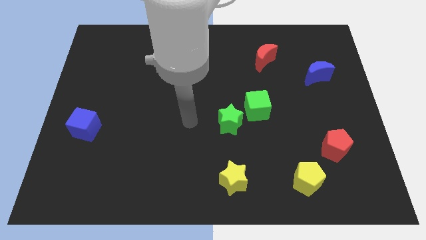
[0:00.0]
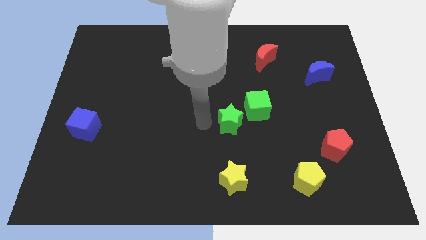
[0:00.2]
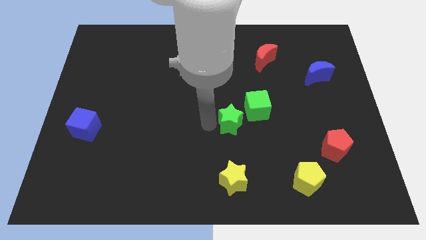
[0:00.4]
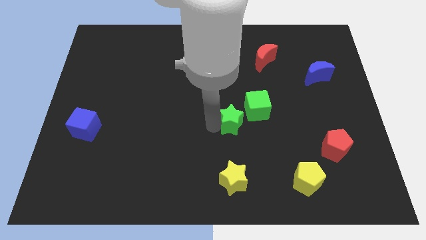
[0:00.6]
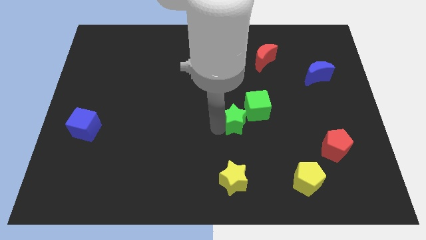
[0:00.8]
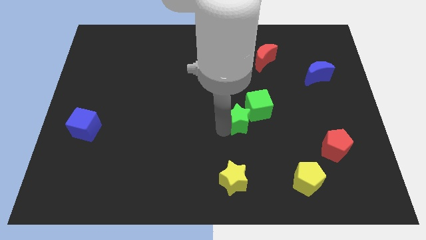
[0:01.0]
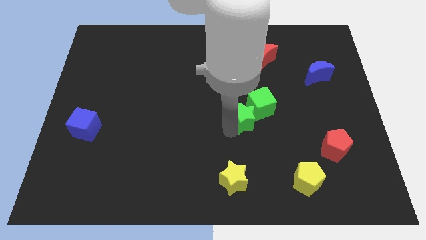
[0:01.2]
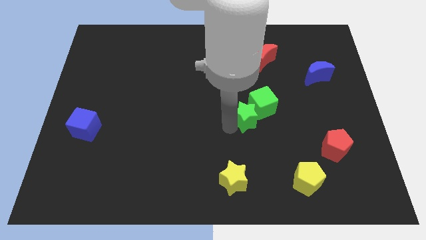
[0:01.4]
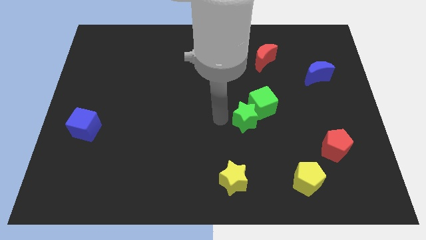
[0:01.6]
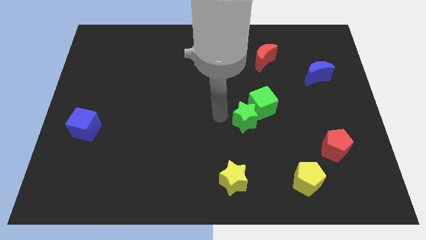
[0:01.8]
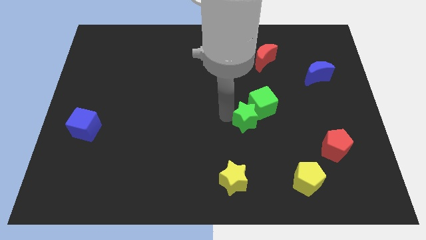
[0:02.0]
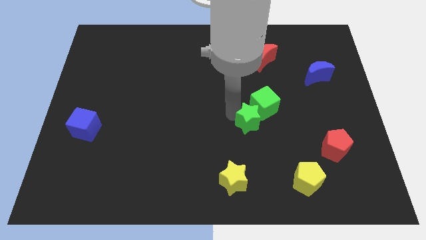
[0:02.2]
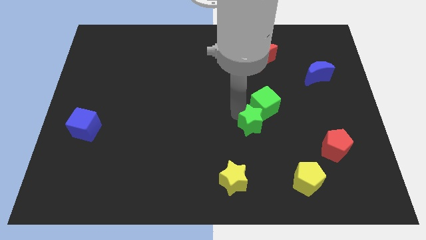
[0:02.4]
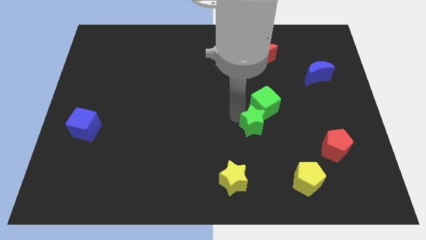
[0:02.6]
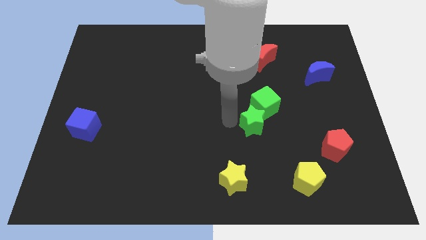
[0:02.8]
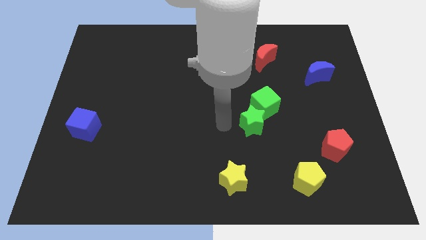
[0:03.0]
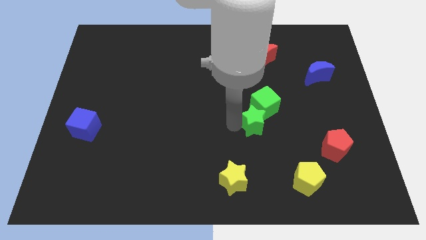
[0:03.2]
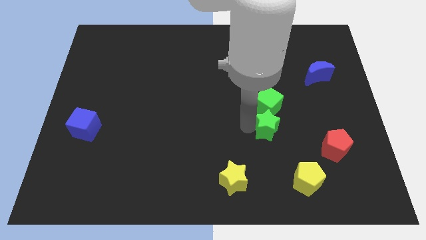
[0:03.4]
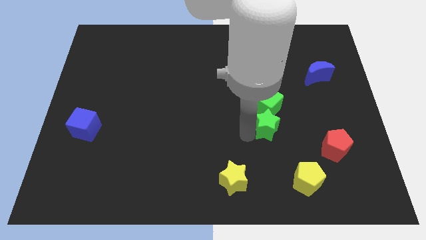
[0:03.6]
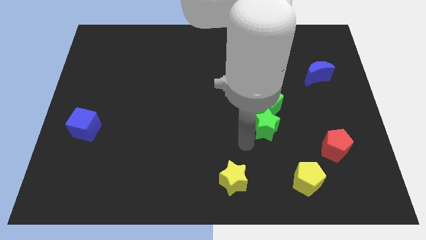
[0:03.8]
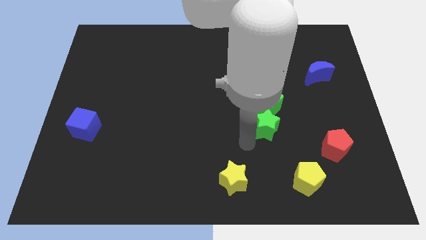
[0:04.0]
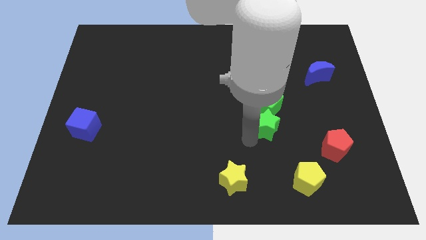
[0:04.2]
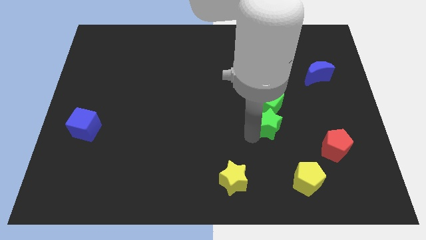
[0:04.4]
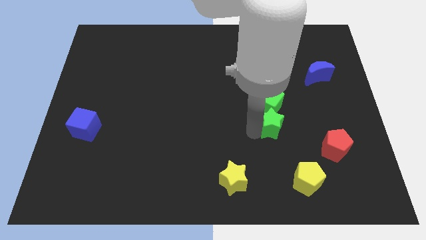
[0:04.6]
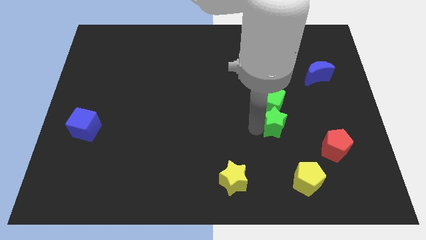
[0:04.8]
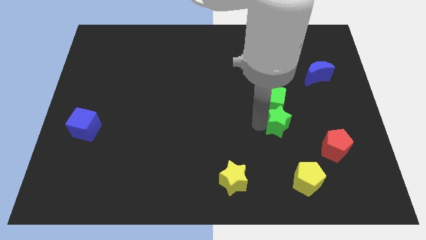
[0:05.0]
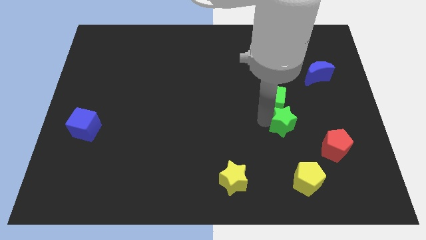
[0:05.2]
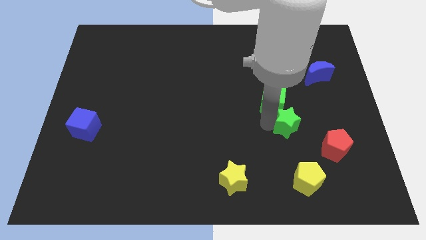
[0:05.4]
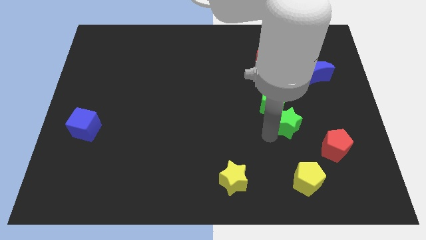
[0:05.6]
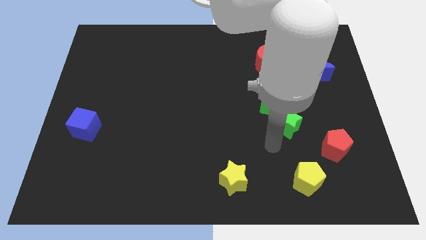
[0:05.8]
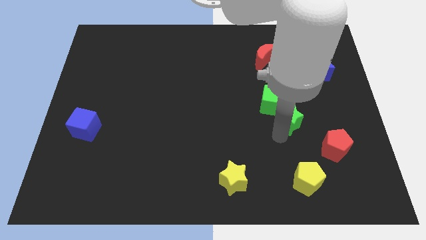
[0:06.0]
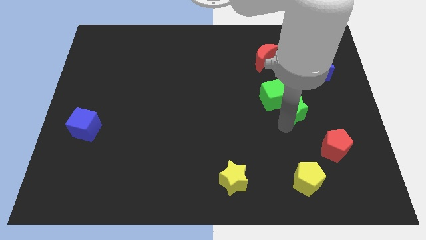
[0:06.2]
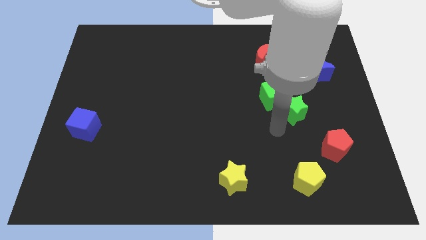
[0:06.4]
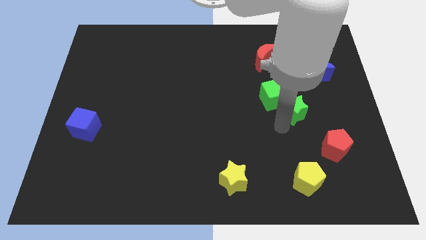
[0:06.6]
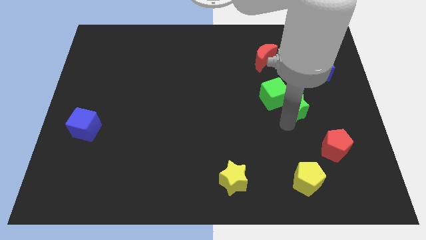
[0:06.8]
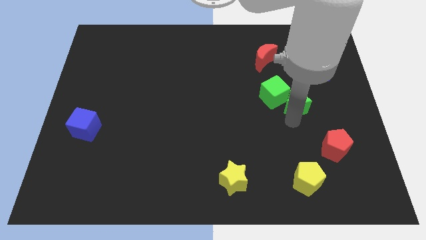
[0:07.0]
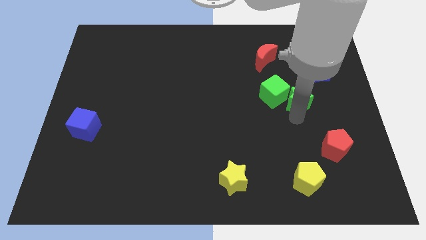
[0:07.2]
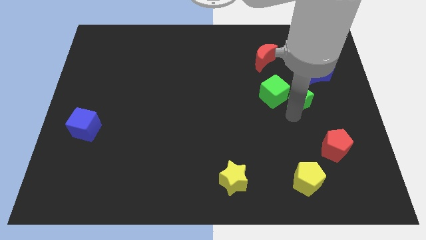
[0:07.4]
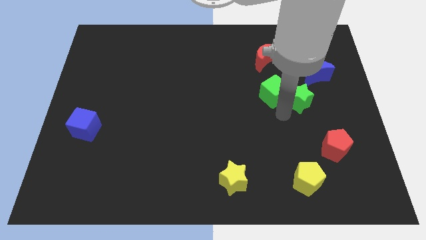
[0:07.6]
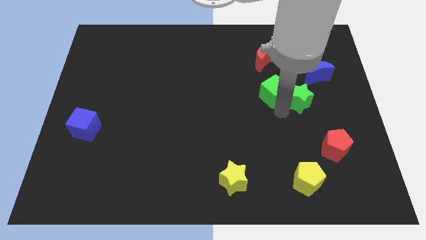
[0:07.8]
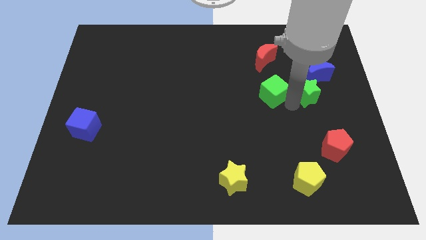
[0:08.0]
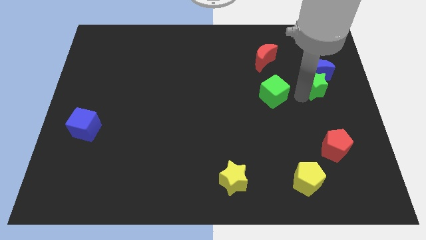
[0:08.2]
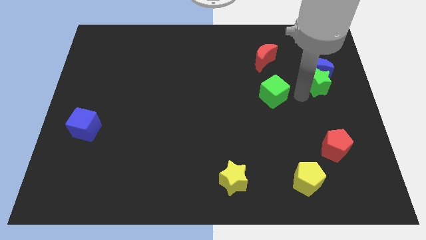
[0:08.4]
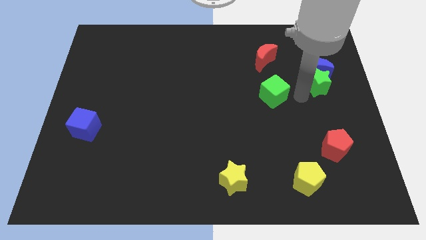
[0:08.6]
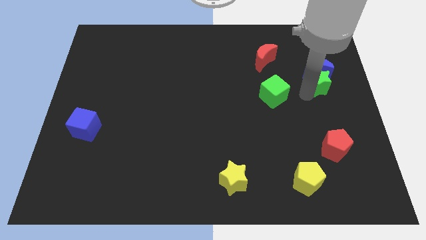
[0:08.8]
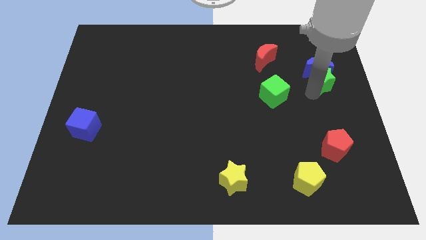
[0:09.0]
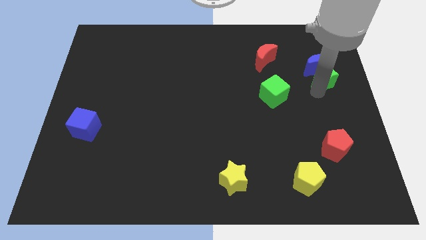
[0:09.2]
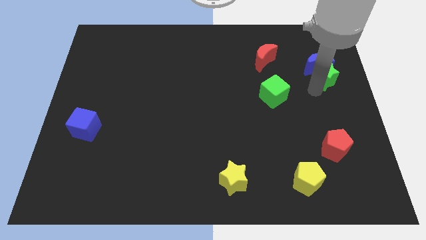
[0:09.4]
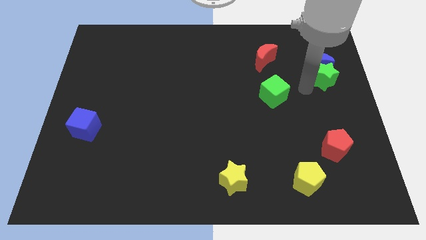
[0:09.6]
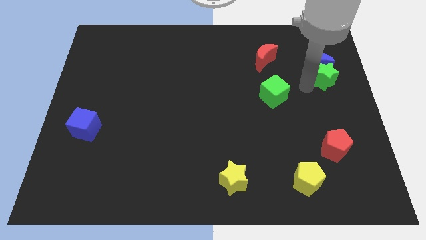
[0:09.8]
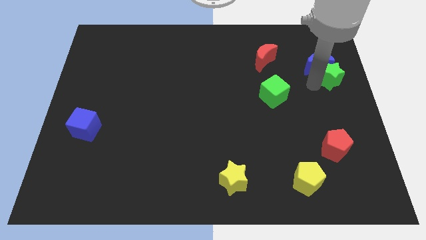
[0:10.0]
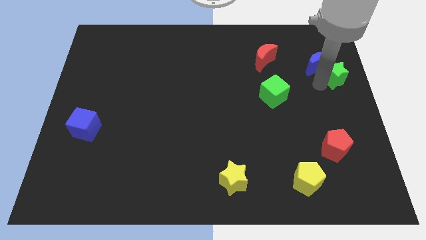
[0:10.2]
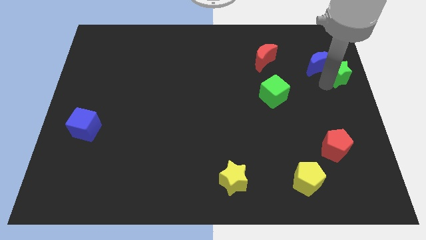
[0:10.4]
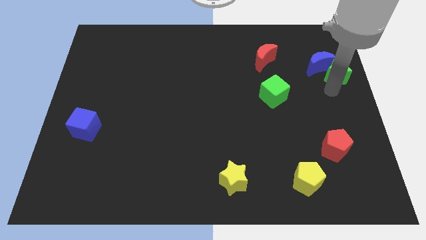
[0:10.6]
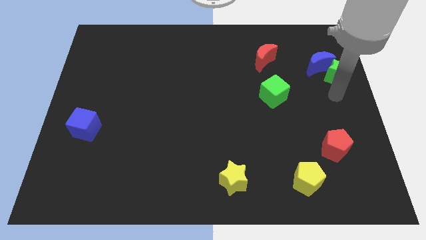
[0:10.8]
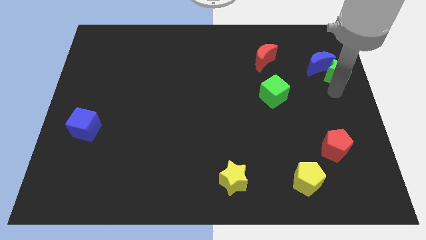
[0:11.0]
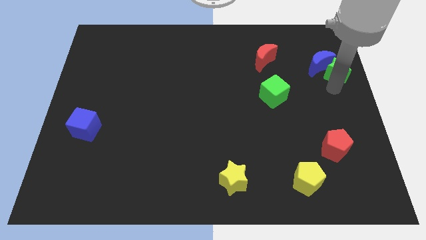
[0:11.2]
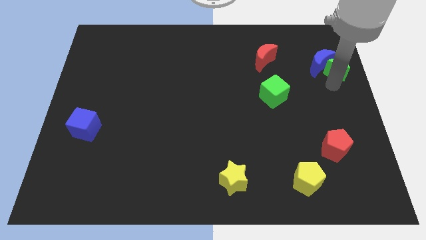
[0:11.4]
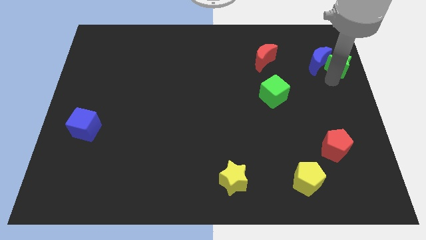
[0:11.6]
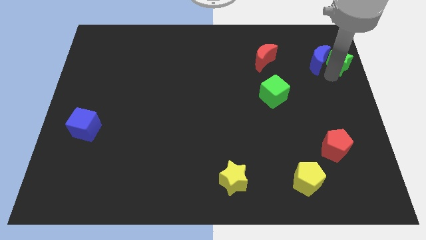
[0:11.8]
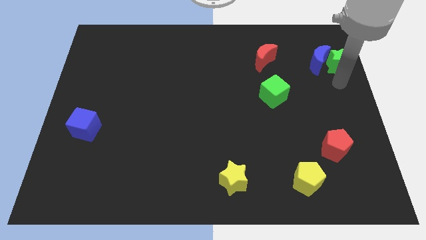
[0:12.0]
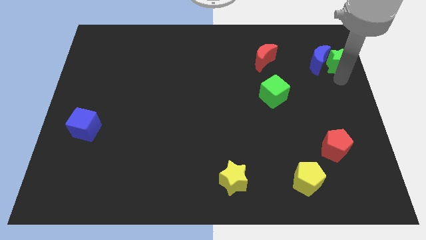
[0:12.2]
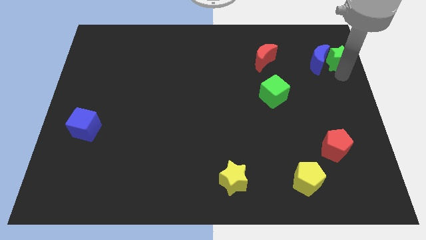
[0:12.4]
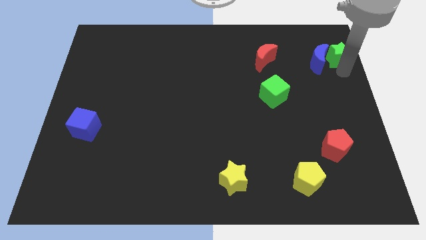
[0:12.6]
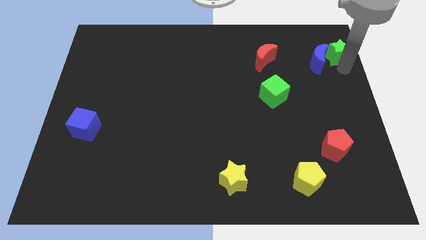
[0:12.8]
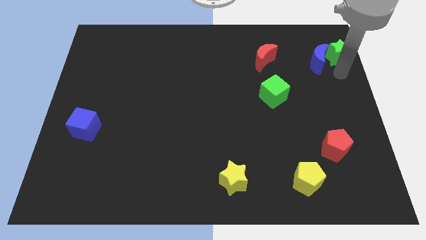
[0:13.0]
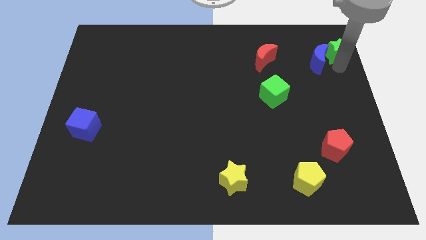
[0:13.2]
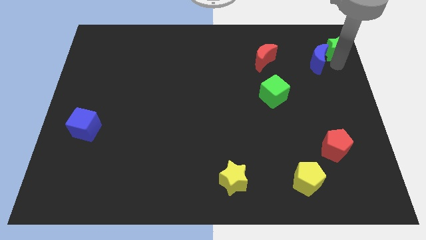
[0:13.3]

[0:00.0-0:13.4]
slide the green star to the top right of the board
